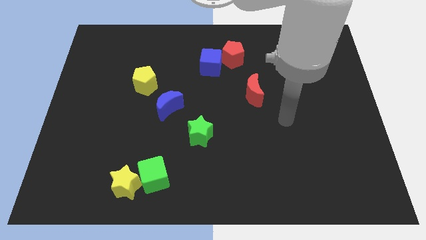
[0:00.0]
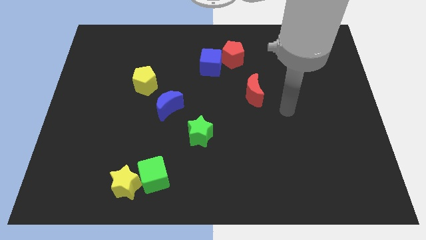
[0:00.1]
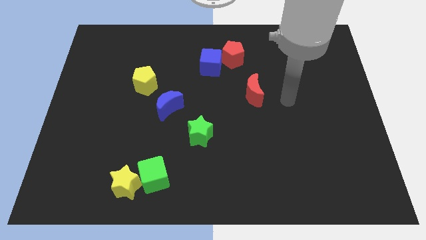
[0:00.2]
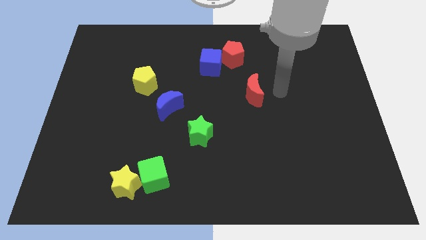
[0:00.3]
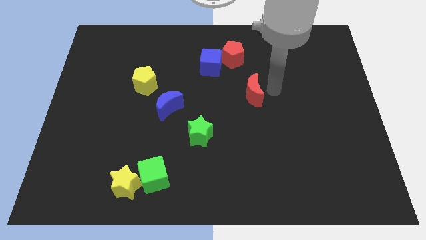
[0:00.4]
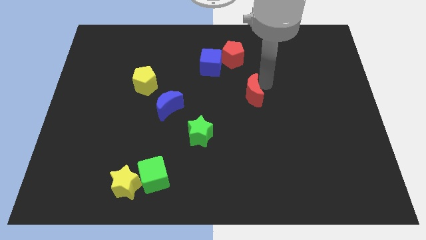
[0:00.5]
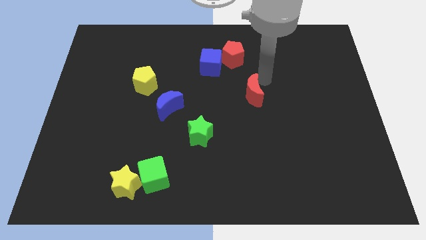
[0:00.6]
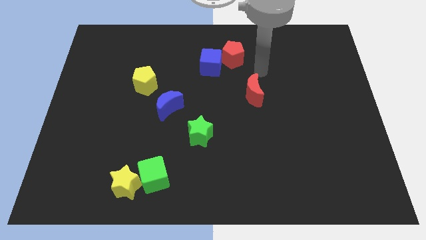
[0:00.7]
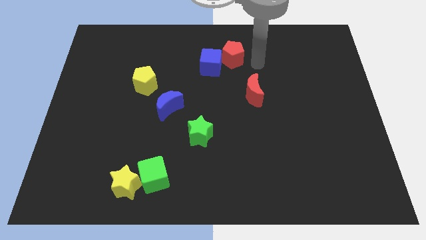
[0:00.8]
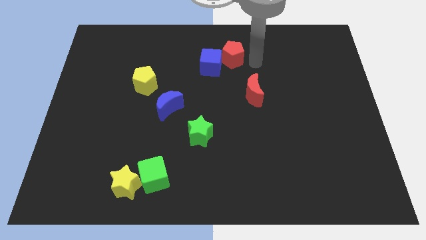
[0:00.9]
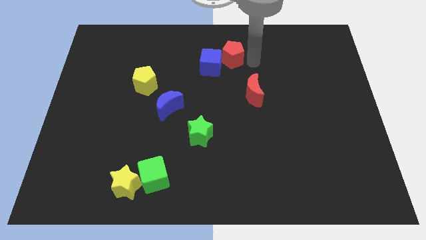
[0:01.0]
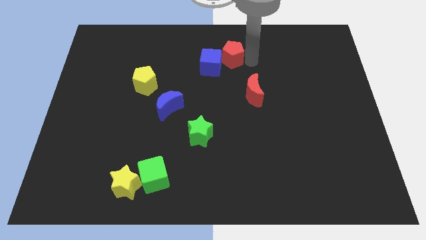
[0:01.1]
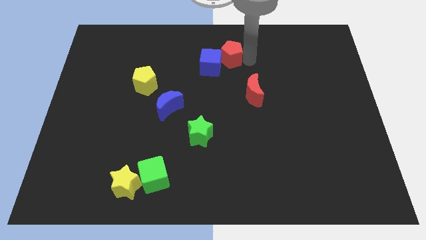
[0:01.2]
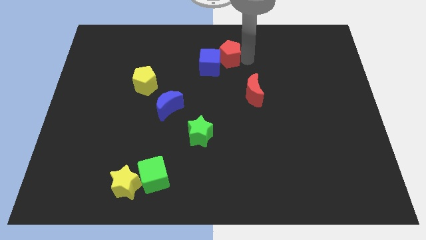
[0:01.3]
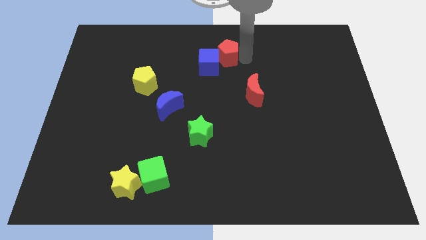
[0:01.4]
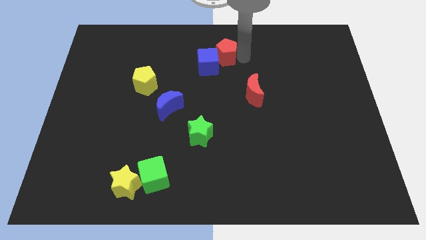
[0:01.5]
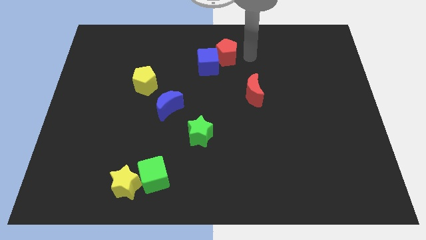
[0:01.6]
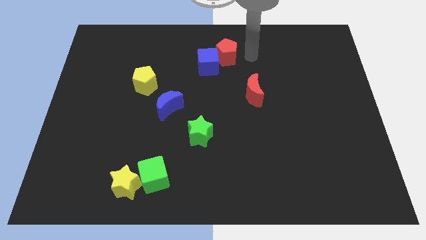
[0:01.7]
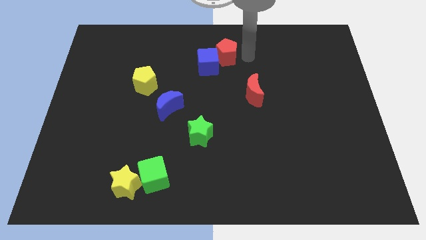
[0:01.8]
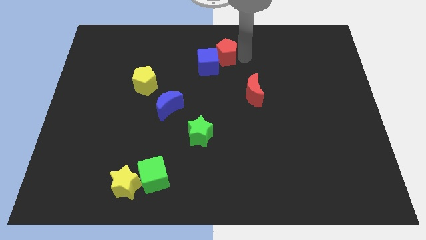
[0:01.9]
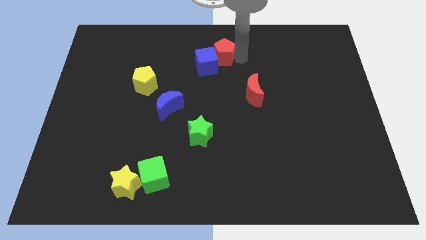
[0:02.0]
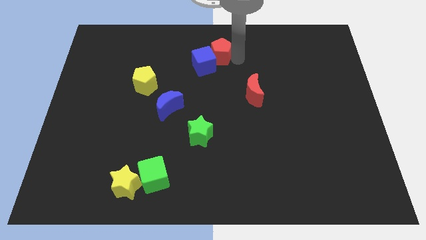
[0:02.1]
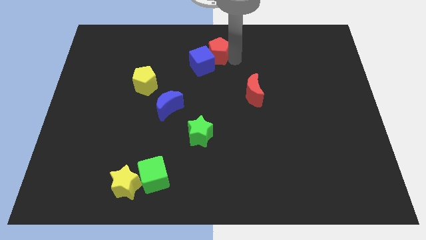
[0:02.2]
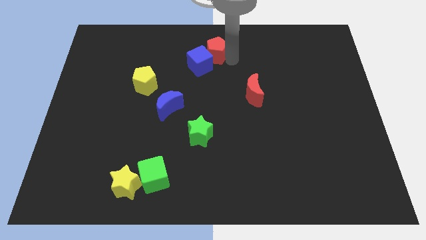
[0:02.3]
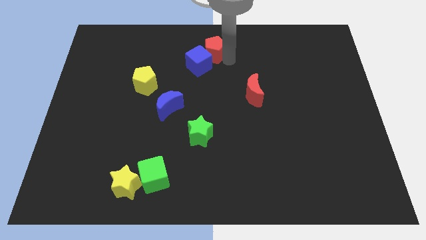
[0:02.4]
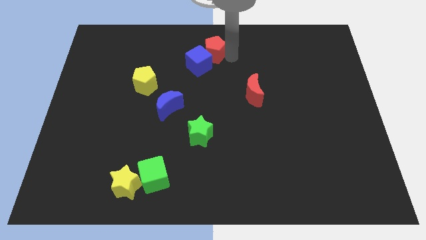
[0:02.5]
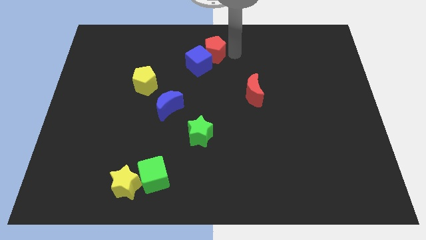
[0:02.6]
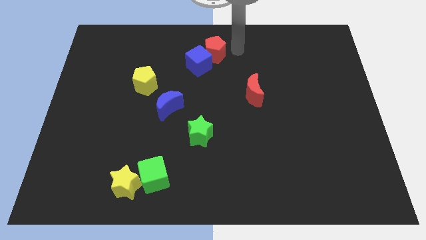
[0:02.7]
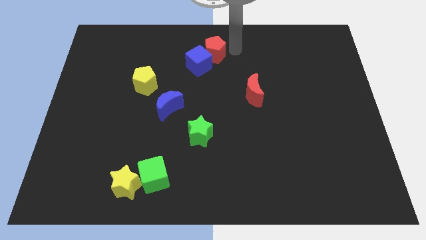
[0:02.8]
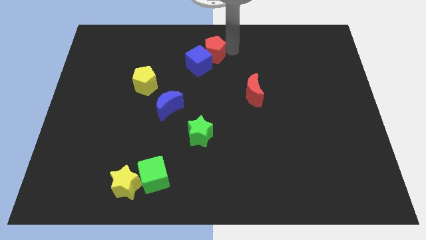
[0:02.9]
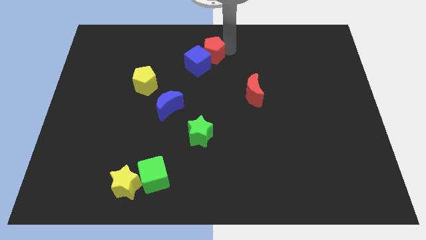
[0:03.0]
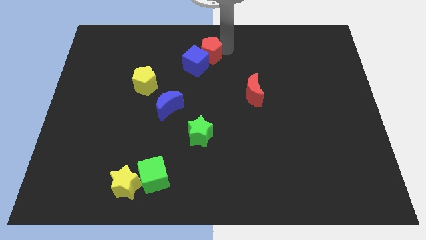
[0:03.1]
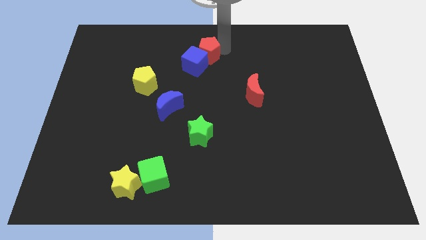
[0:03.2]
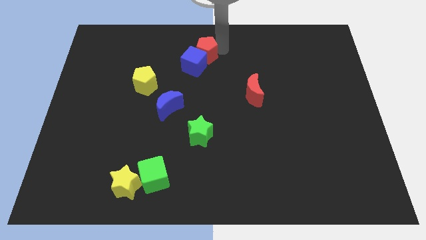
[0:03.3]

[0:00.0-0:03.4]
push the red pentagon a little left

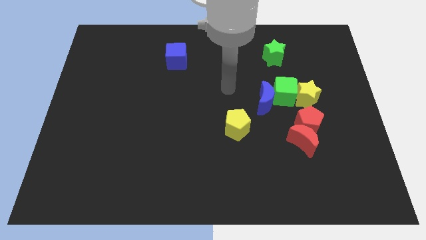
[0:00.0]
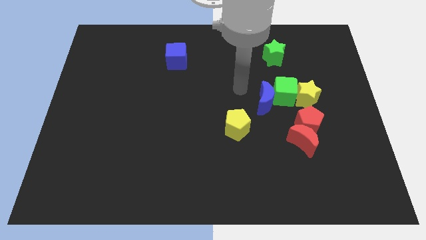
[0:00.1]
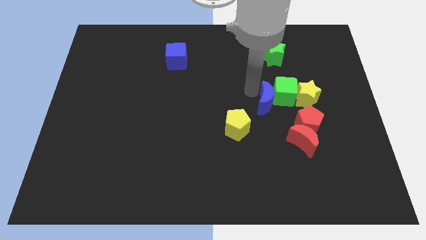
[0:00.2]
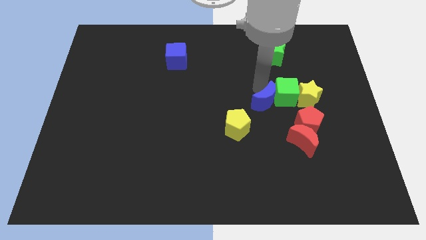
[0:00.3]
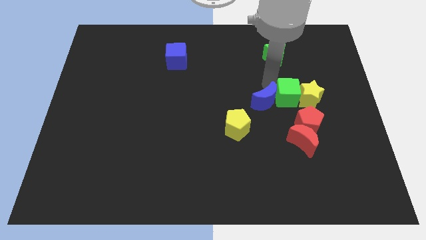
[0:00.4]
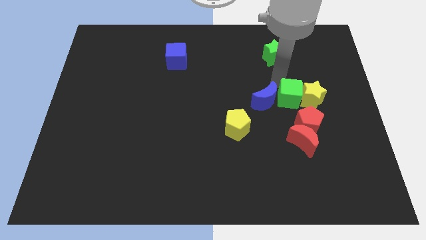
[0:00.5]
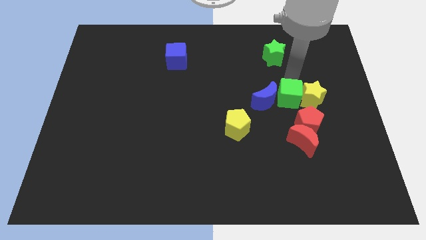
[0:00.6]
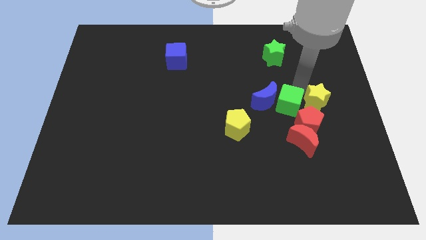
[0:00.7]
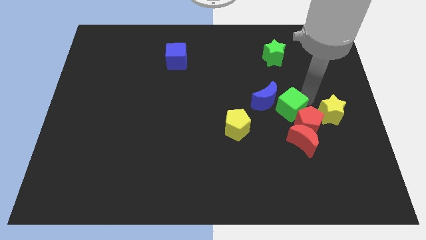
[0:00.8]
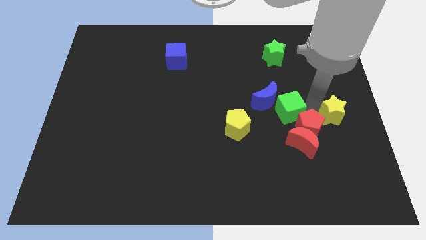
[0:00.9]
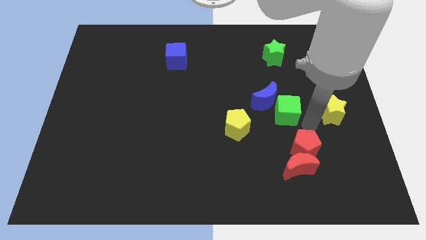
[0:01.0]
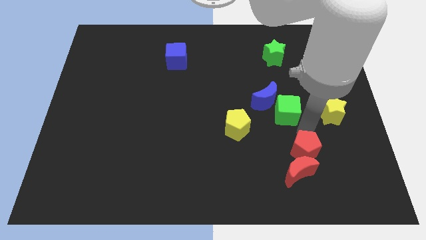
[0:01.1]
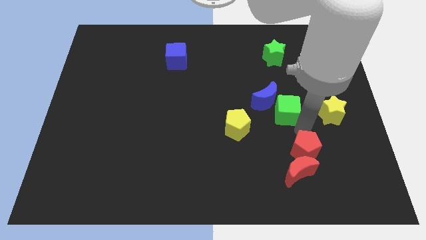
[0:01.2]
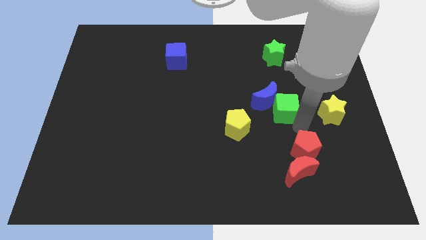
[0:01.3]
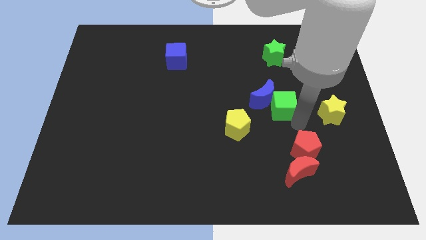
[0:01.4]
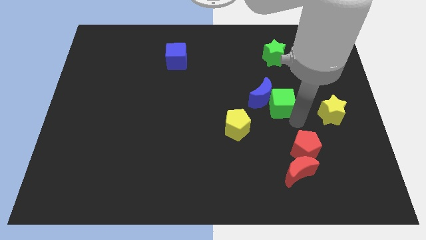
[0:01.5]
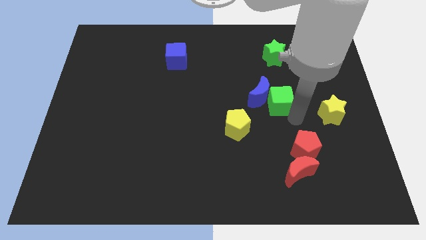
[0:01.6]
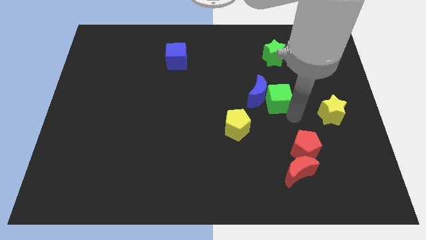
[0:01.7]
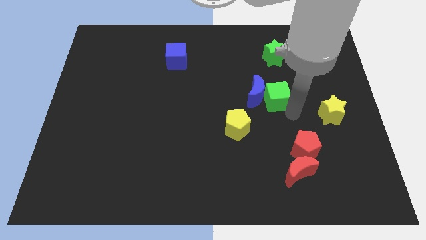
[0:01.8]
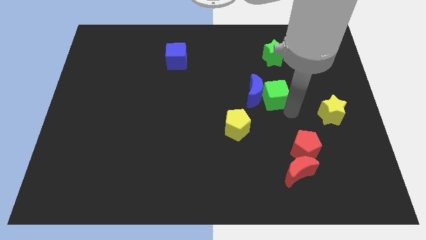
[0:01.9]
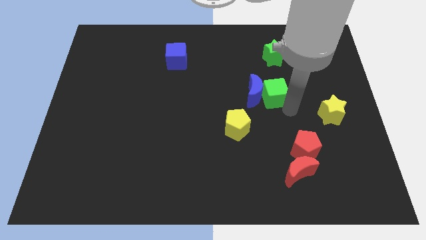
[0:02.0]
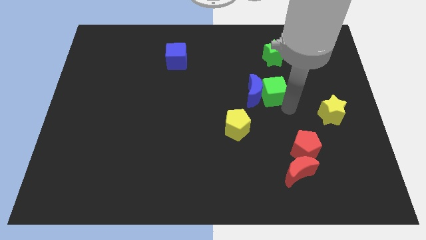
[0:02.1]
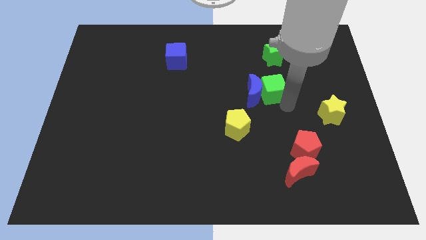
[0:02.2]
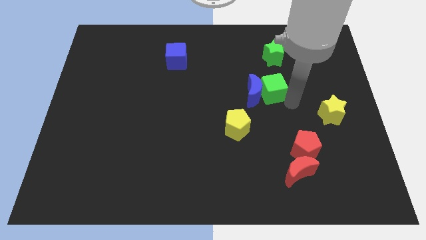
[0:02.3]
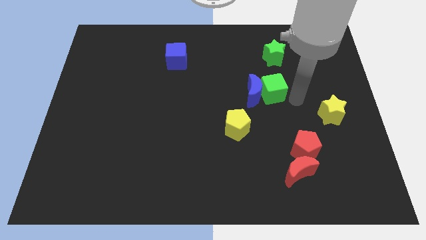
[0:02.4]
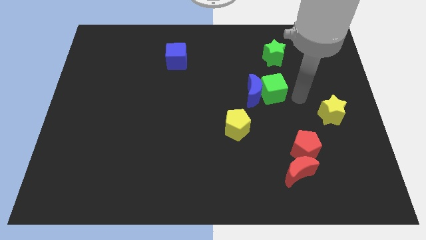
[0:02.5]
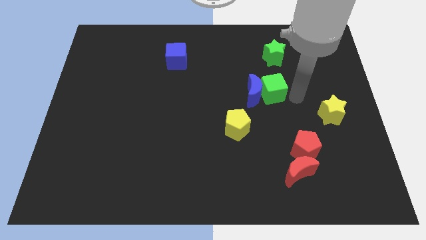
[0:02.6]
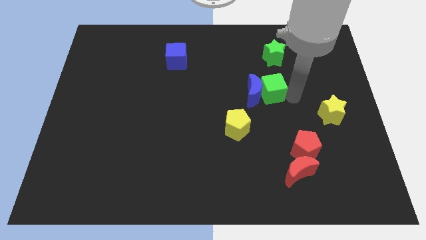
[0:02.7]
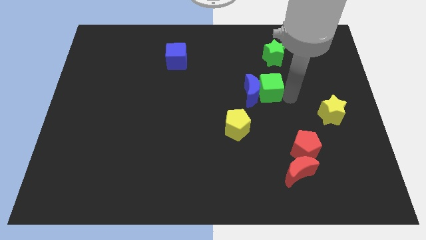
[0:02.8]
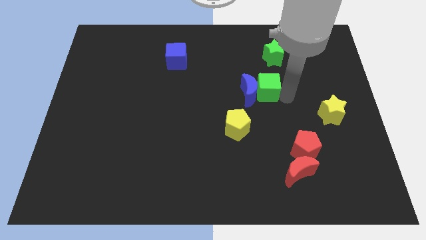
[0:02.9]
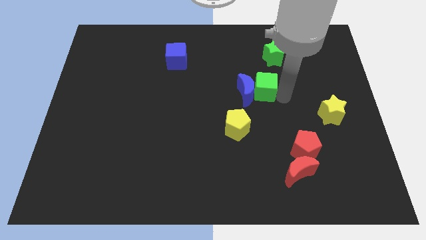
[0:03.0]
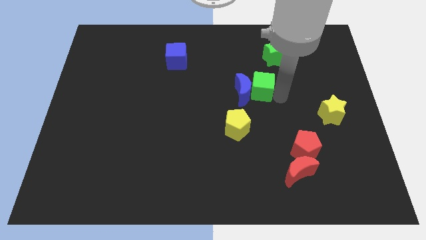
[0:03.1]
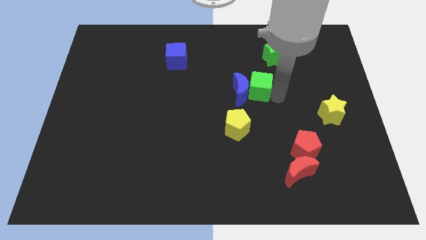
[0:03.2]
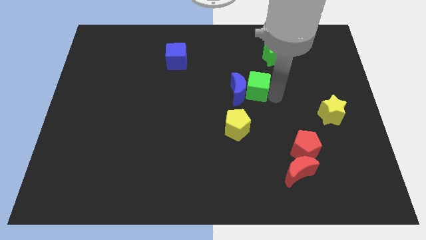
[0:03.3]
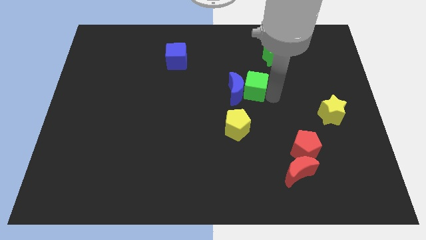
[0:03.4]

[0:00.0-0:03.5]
slightly slide the green cube left

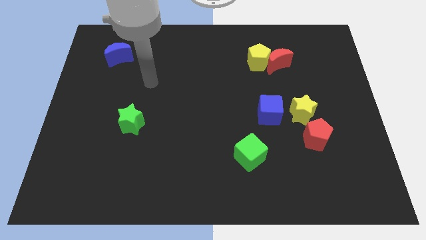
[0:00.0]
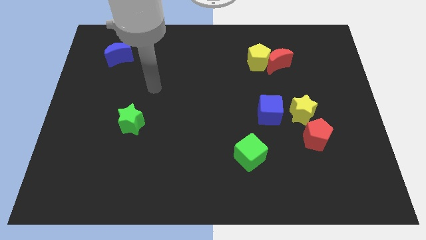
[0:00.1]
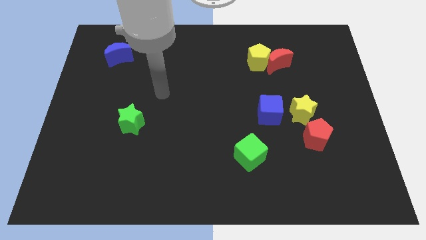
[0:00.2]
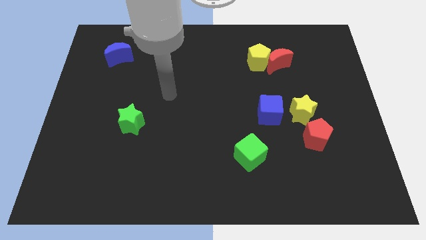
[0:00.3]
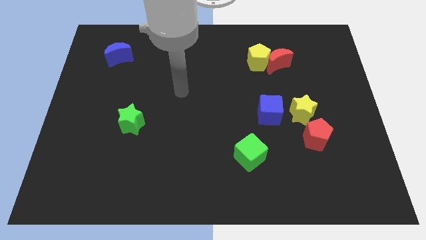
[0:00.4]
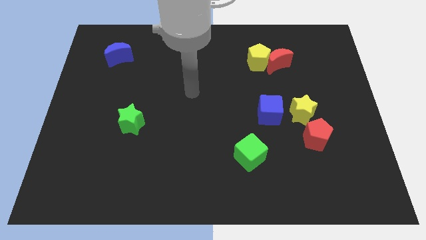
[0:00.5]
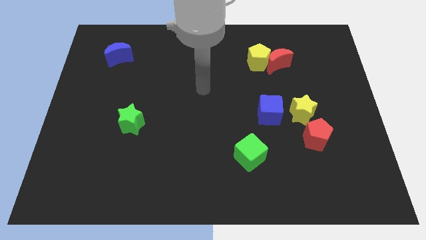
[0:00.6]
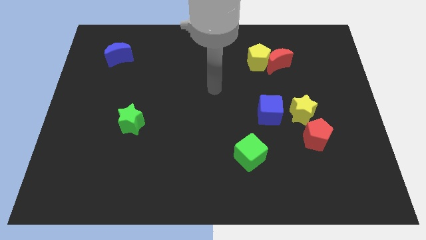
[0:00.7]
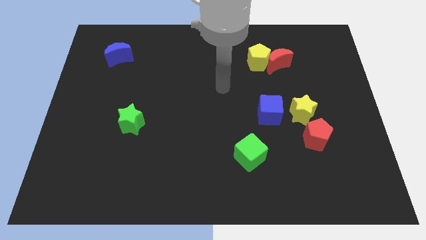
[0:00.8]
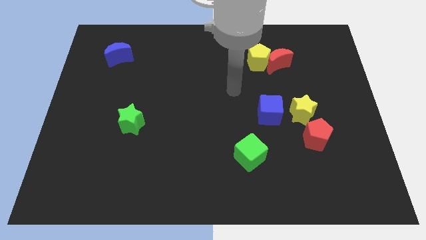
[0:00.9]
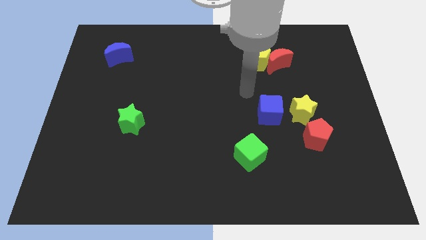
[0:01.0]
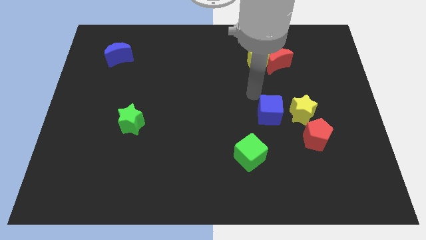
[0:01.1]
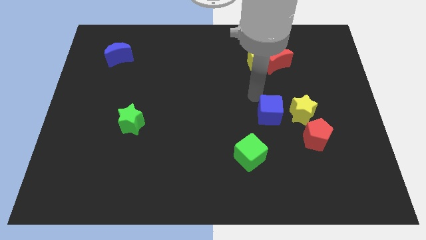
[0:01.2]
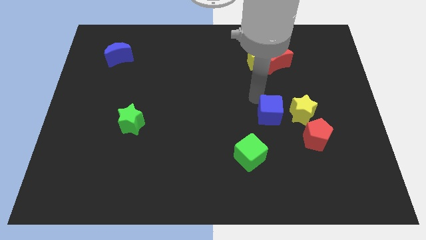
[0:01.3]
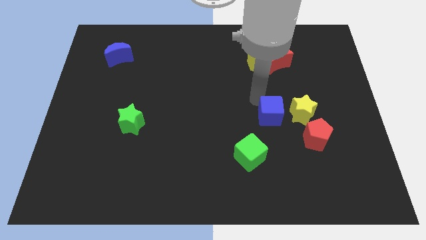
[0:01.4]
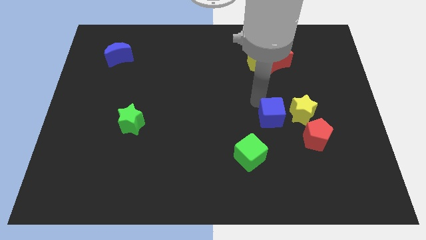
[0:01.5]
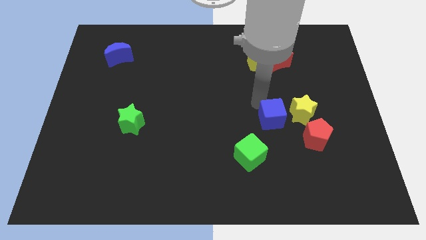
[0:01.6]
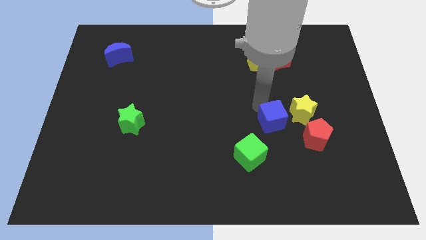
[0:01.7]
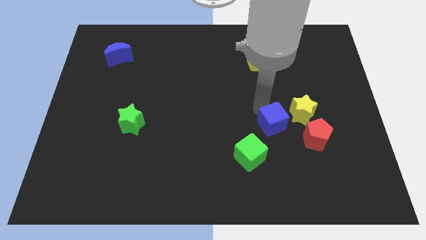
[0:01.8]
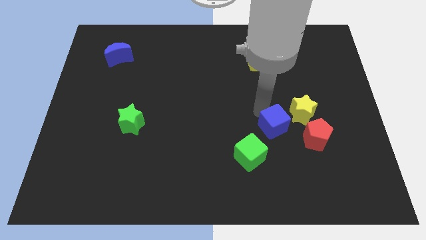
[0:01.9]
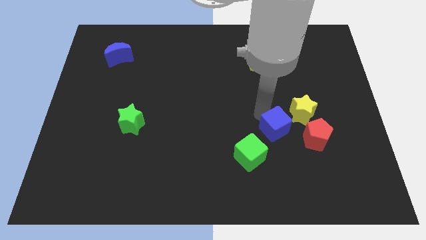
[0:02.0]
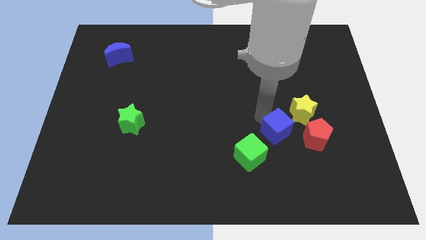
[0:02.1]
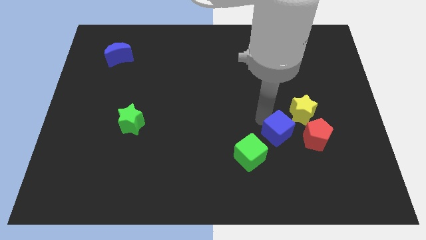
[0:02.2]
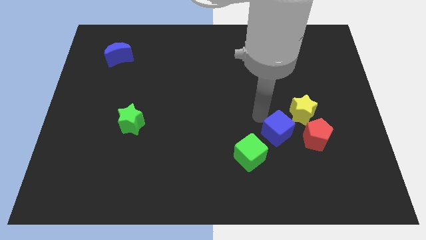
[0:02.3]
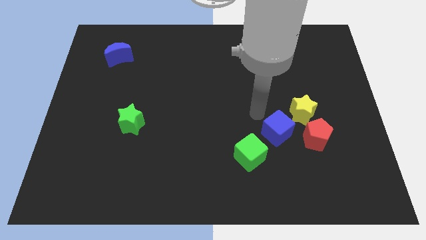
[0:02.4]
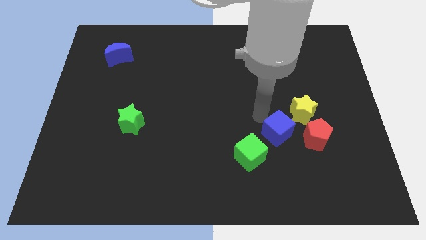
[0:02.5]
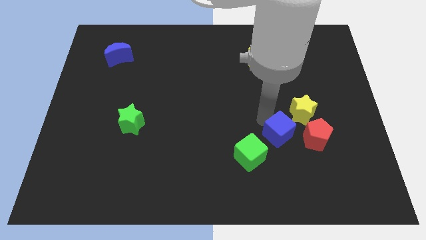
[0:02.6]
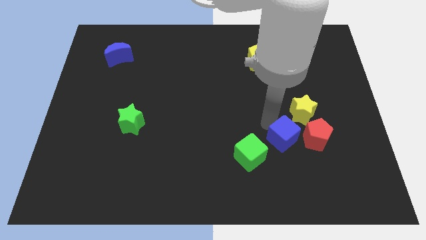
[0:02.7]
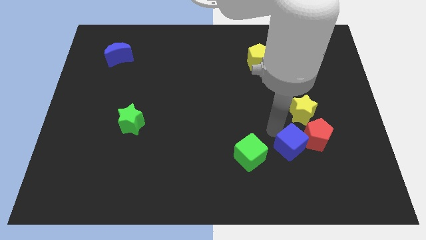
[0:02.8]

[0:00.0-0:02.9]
slightly push the blue cube downwards and to the right diagonally
